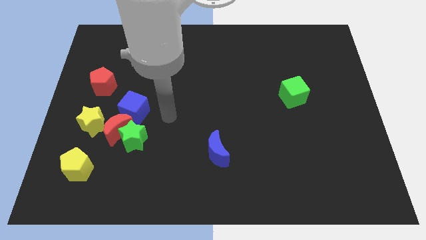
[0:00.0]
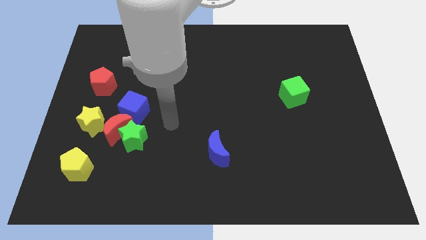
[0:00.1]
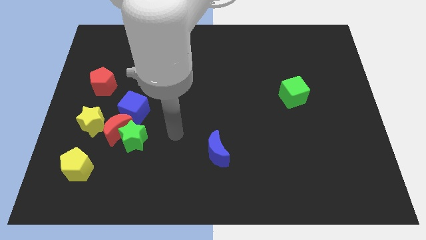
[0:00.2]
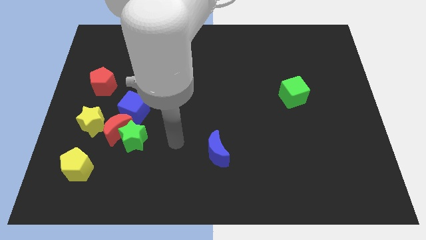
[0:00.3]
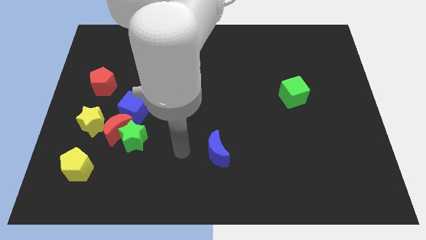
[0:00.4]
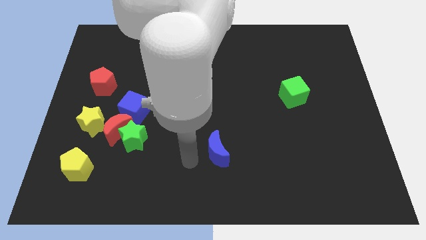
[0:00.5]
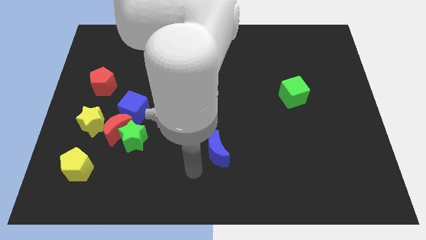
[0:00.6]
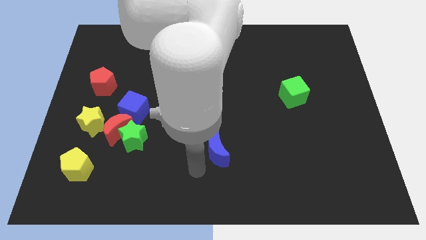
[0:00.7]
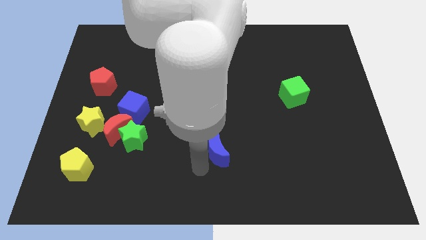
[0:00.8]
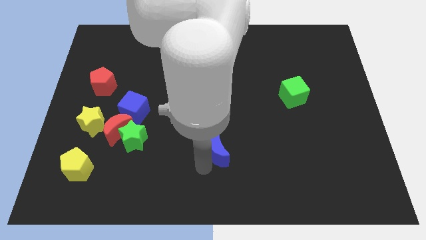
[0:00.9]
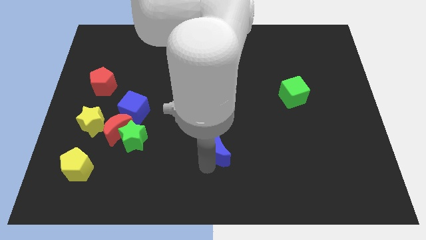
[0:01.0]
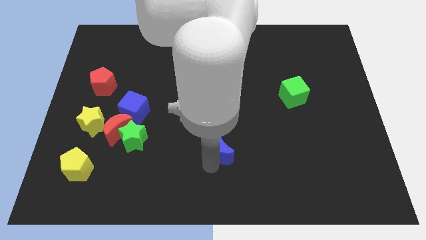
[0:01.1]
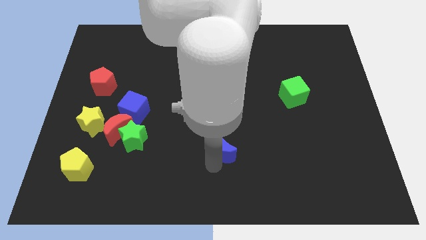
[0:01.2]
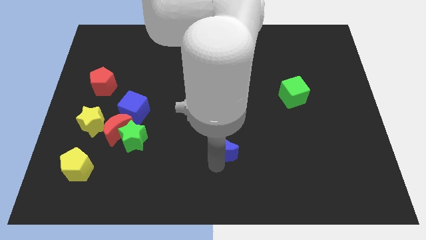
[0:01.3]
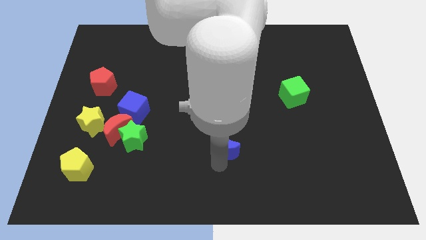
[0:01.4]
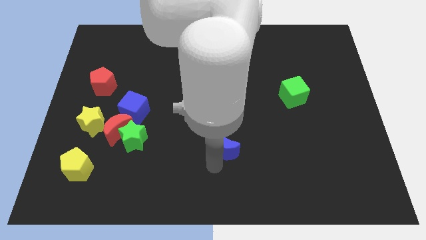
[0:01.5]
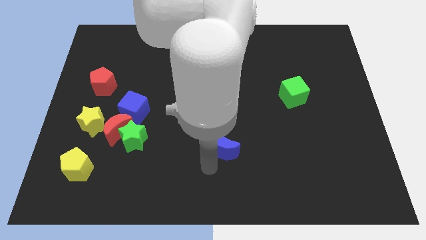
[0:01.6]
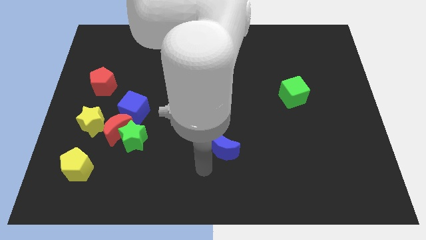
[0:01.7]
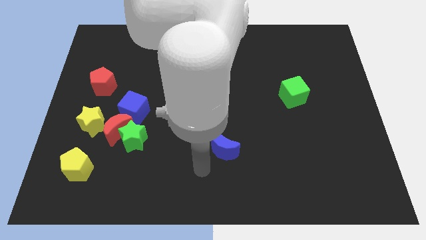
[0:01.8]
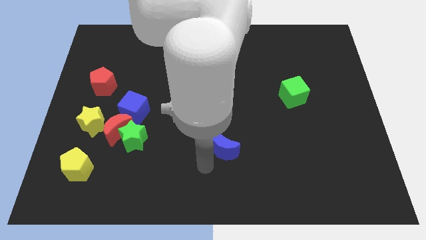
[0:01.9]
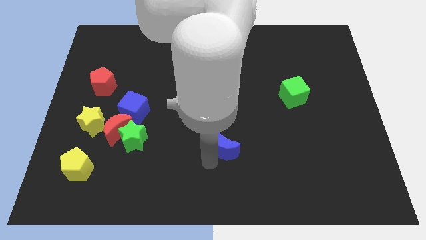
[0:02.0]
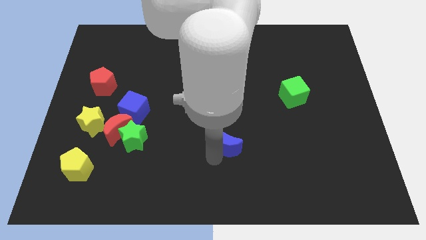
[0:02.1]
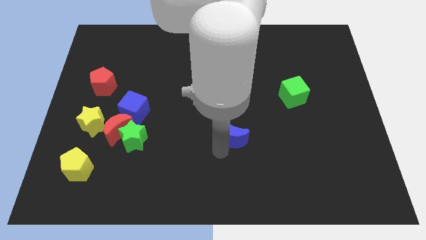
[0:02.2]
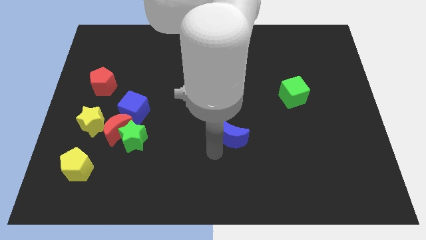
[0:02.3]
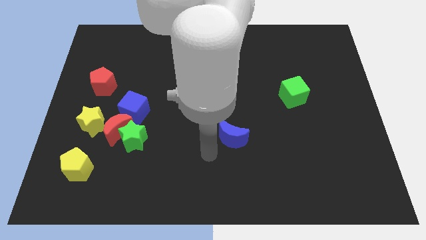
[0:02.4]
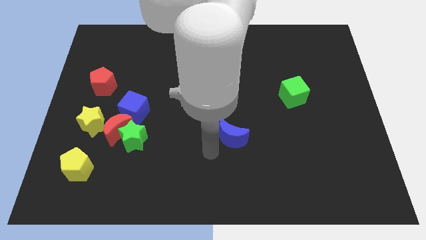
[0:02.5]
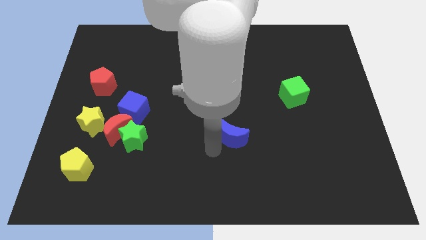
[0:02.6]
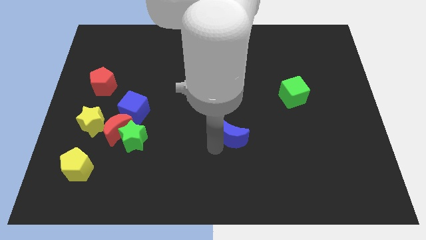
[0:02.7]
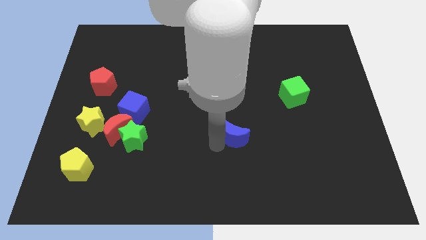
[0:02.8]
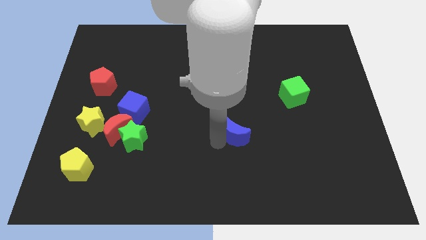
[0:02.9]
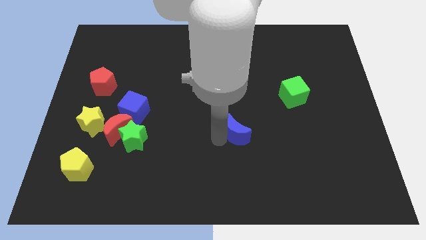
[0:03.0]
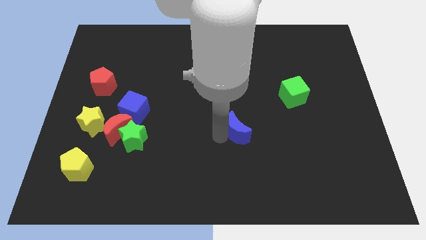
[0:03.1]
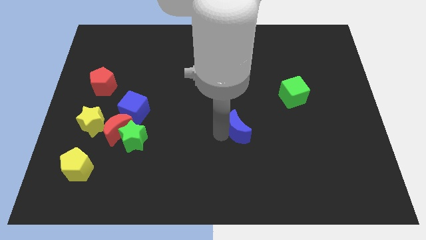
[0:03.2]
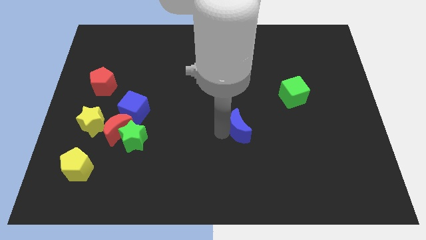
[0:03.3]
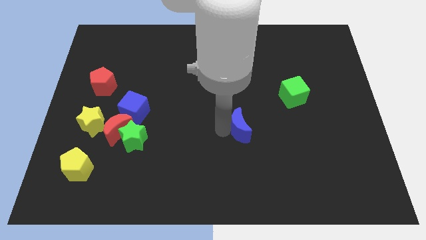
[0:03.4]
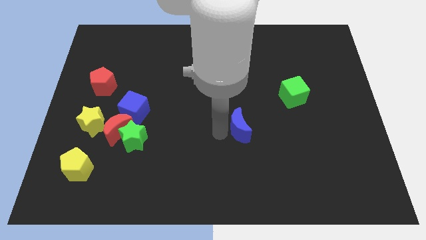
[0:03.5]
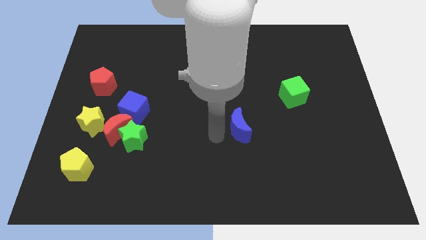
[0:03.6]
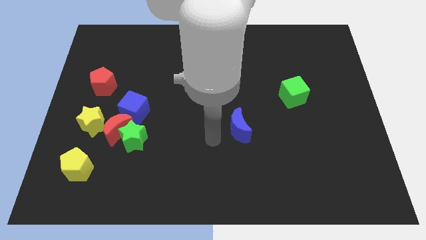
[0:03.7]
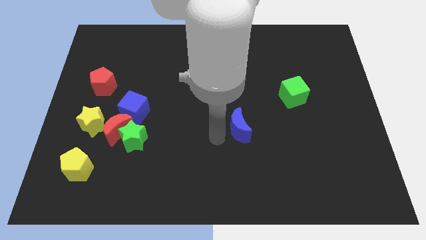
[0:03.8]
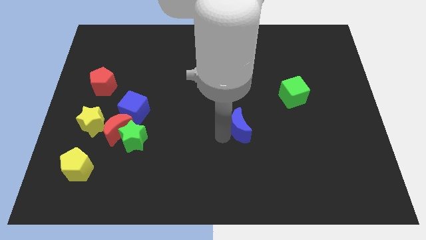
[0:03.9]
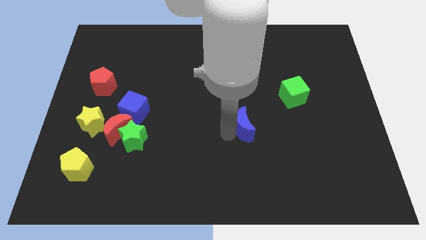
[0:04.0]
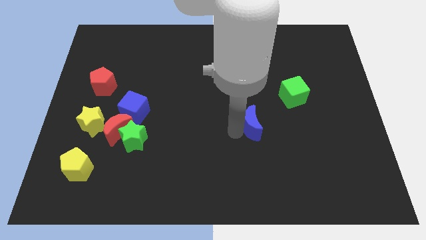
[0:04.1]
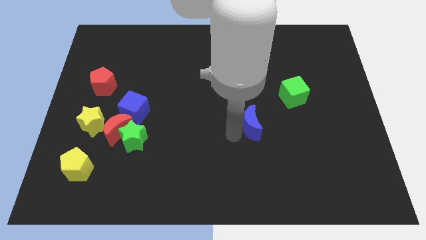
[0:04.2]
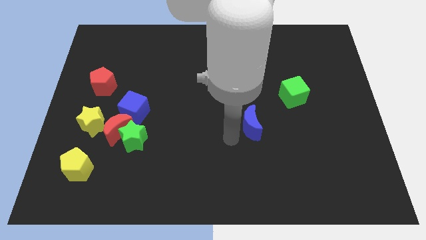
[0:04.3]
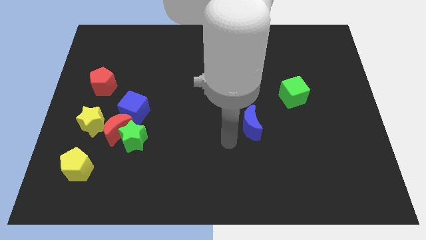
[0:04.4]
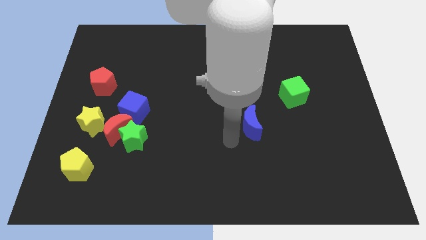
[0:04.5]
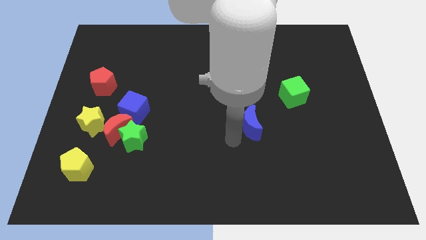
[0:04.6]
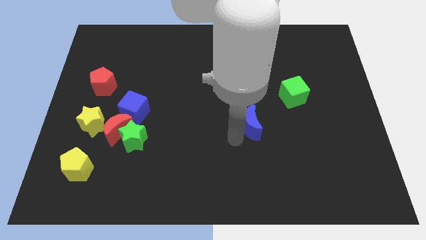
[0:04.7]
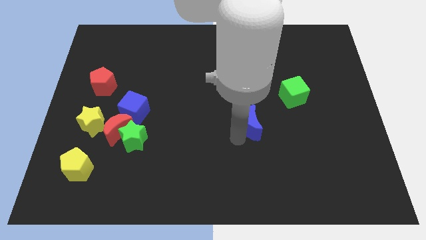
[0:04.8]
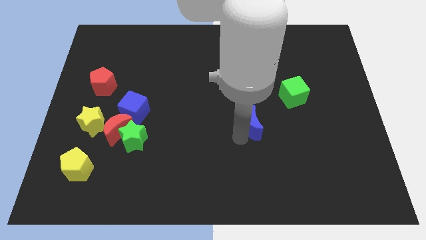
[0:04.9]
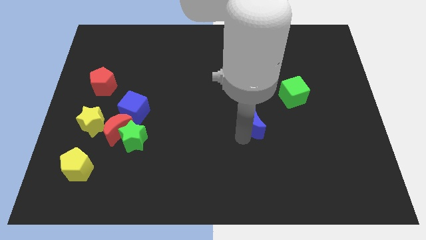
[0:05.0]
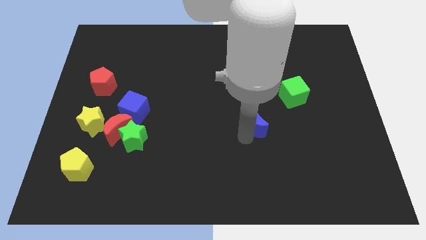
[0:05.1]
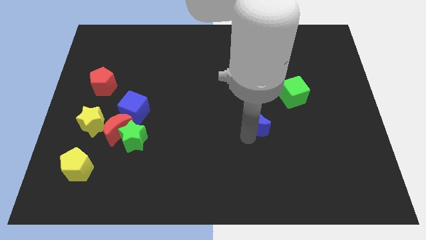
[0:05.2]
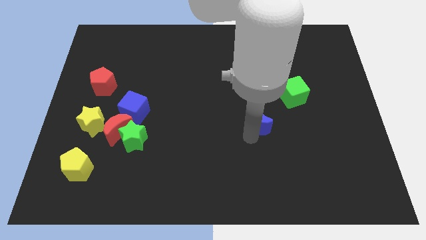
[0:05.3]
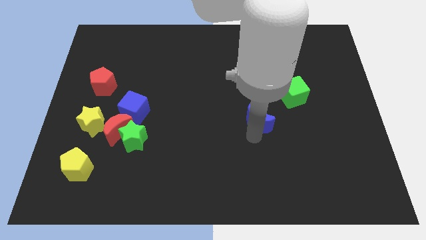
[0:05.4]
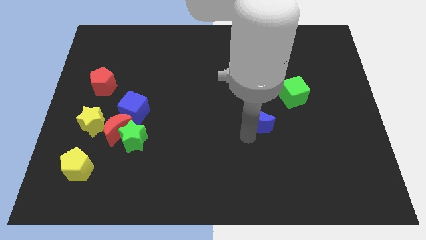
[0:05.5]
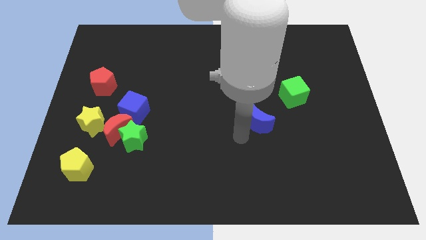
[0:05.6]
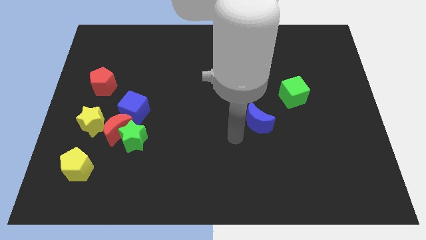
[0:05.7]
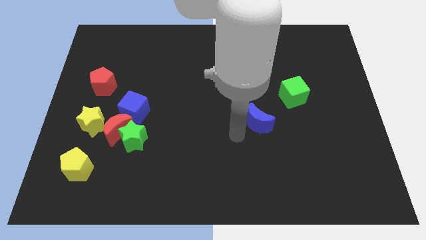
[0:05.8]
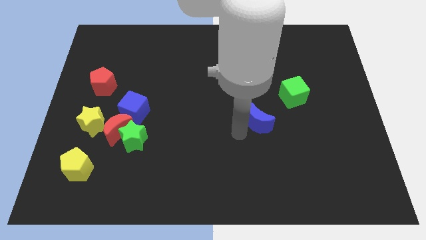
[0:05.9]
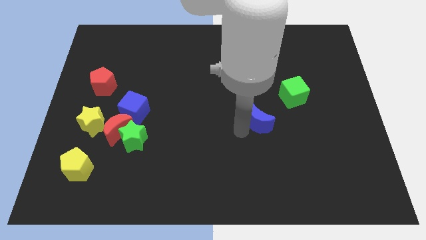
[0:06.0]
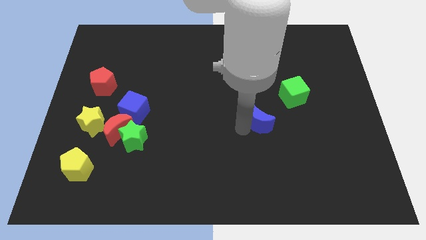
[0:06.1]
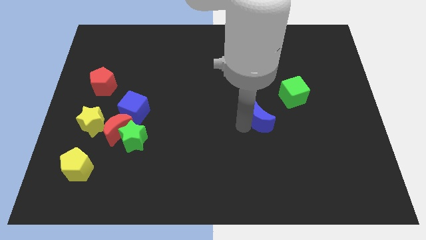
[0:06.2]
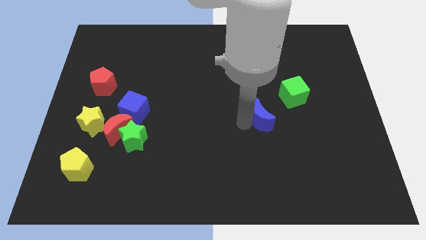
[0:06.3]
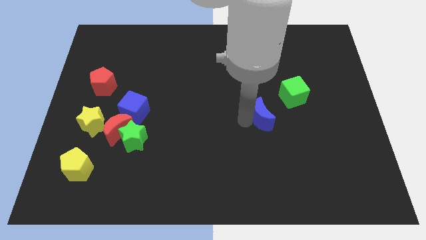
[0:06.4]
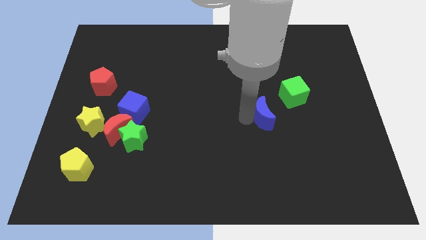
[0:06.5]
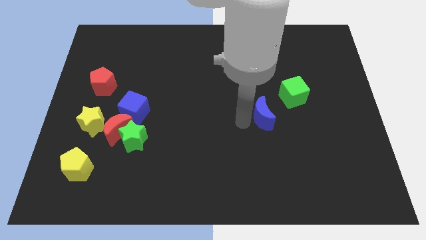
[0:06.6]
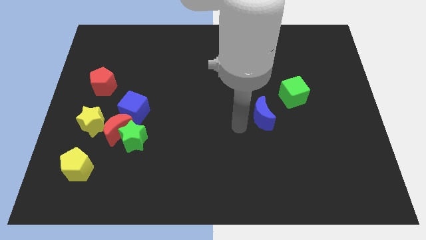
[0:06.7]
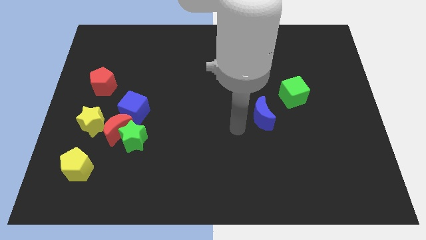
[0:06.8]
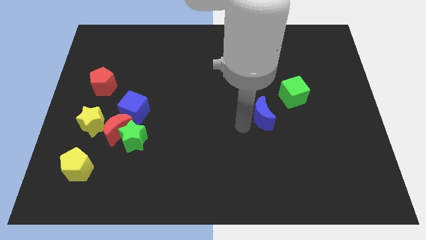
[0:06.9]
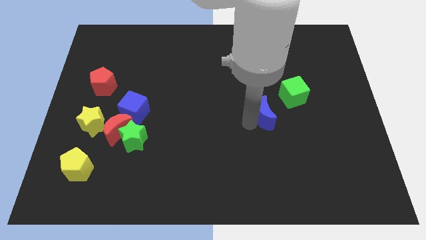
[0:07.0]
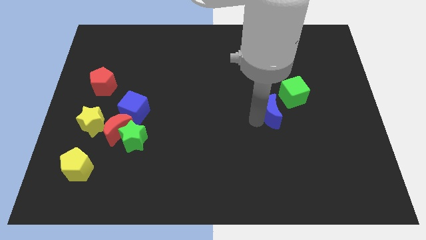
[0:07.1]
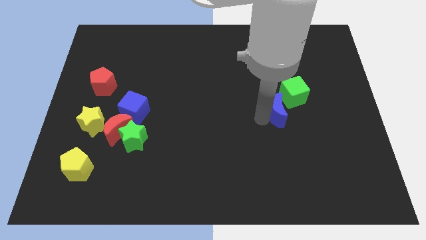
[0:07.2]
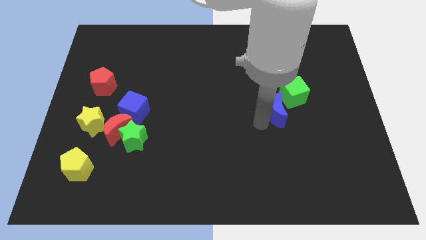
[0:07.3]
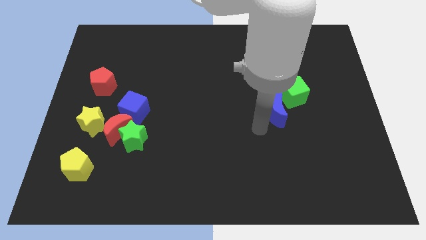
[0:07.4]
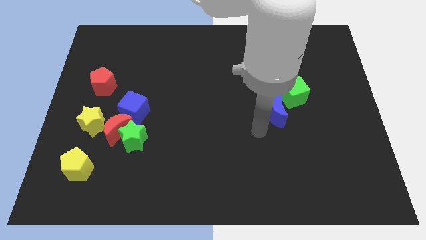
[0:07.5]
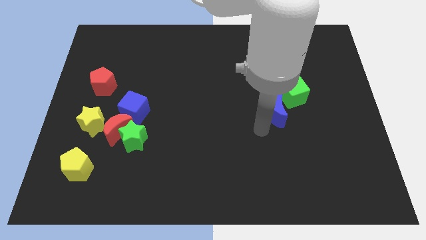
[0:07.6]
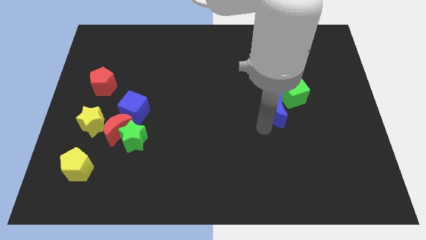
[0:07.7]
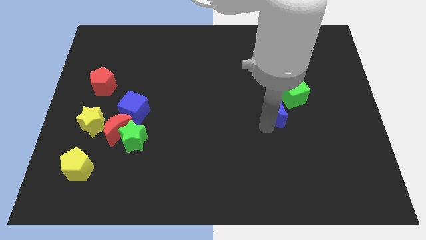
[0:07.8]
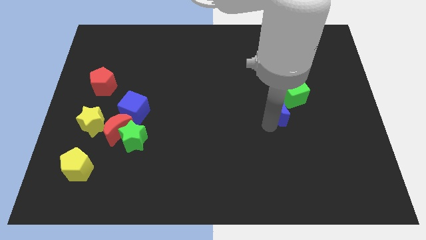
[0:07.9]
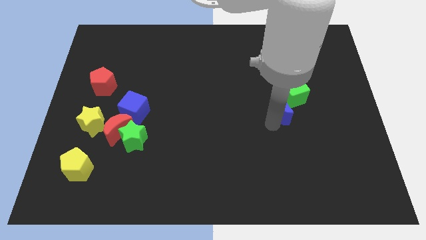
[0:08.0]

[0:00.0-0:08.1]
move the blue moon close to the green cube
